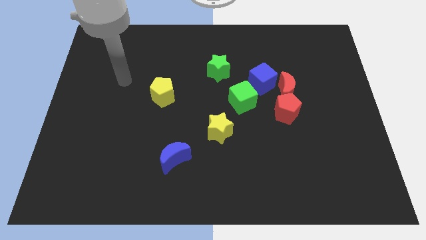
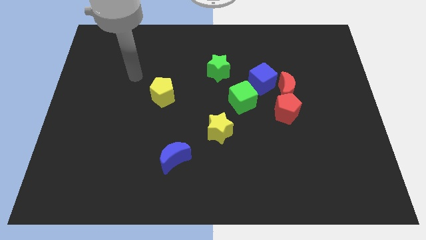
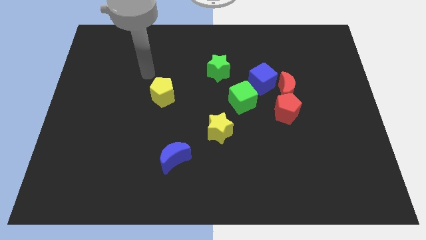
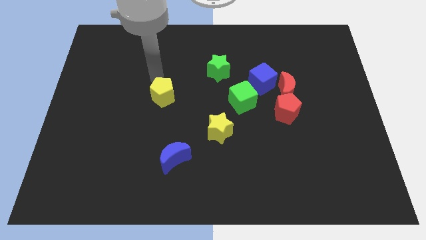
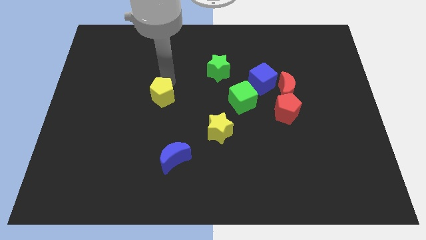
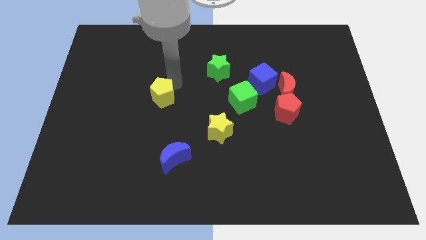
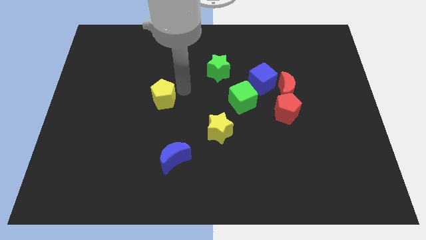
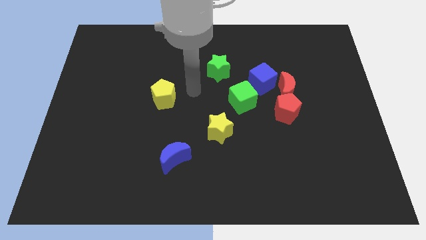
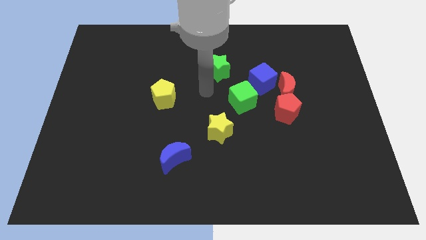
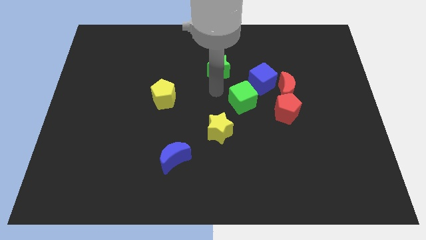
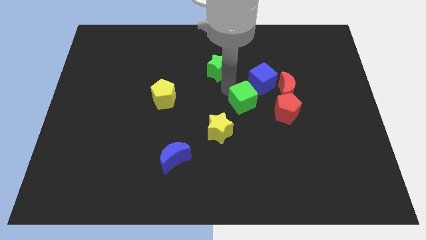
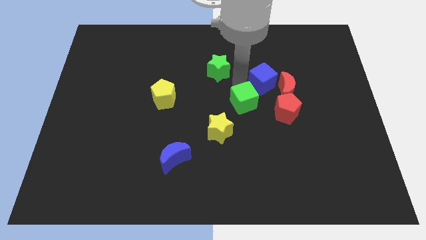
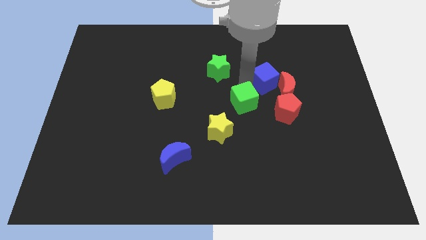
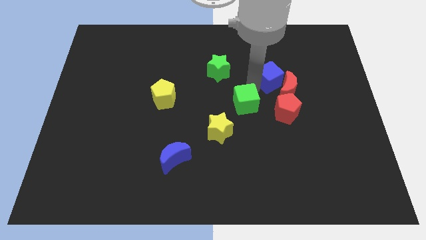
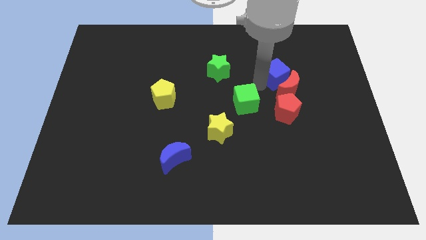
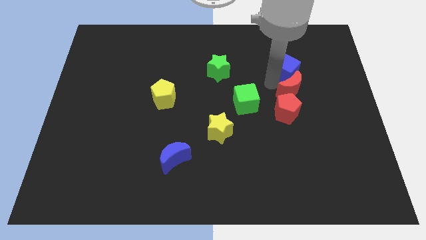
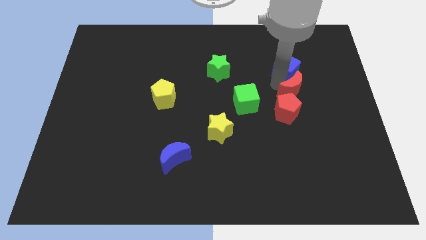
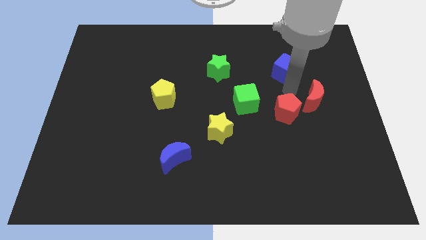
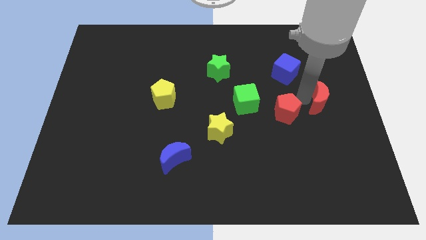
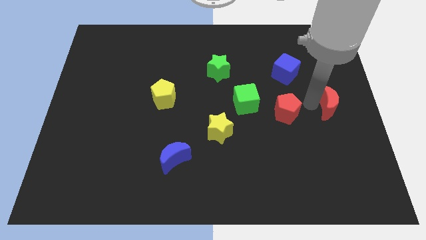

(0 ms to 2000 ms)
move the red pentagon away from the red moon

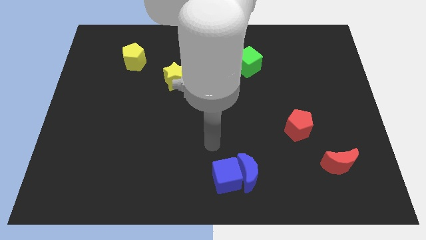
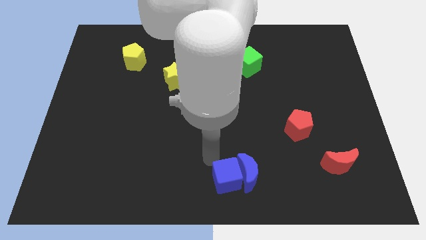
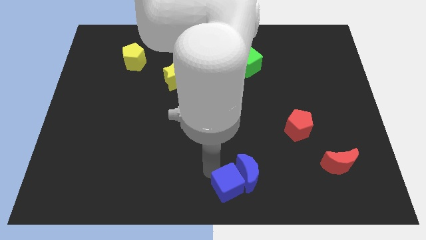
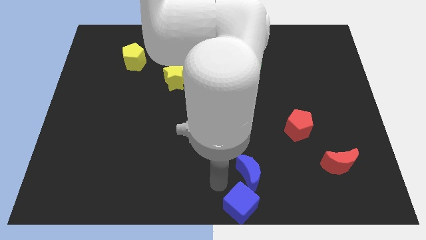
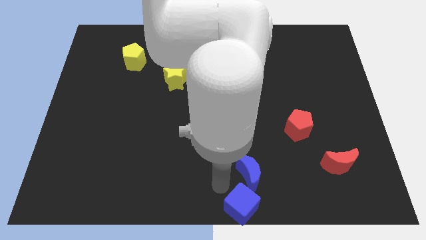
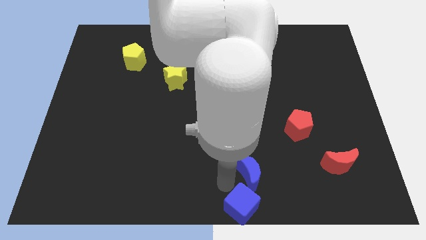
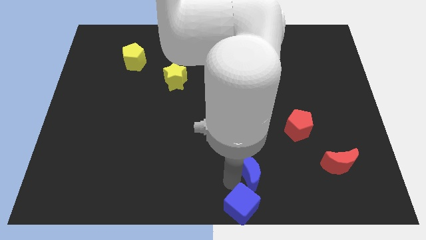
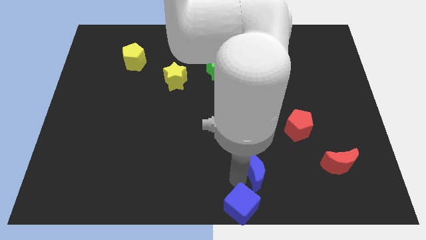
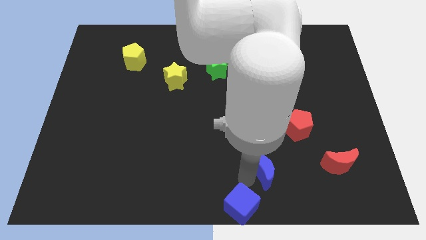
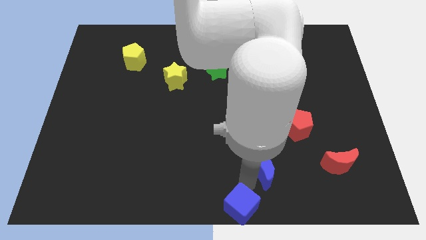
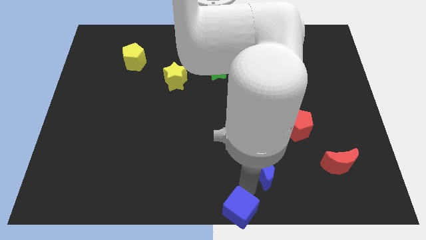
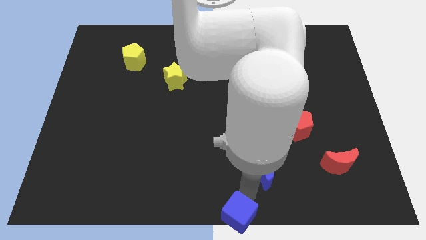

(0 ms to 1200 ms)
separate the blue moon from the blue cube

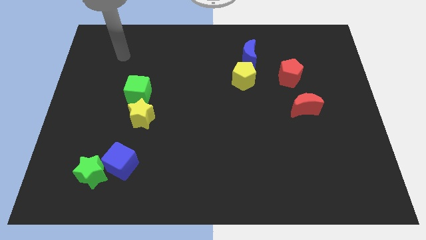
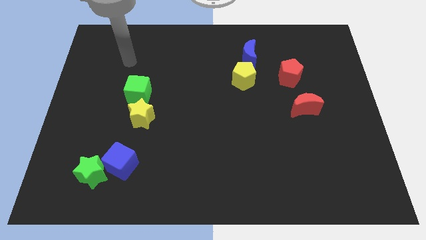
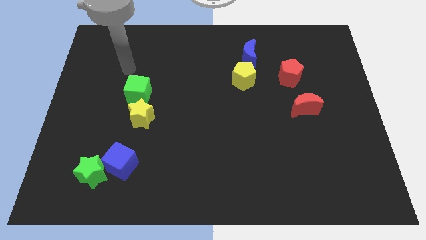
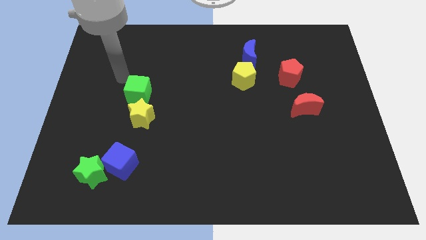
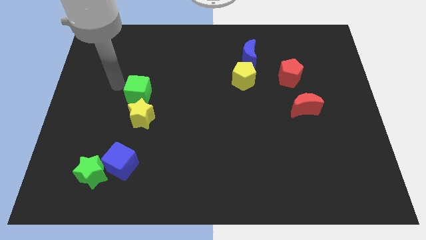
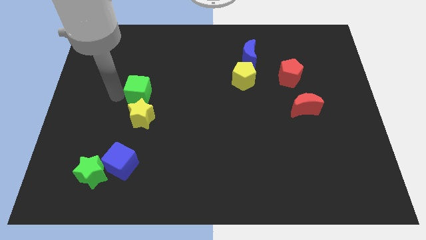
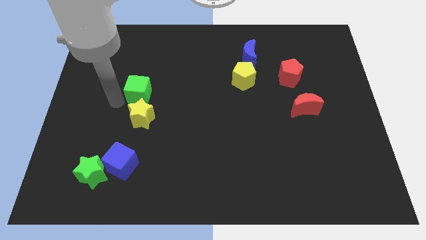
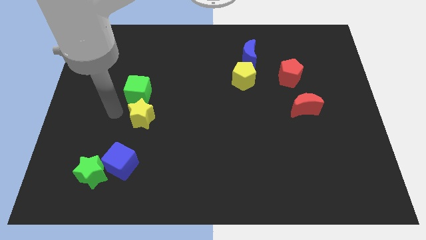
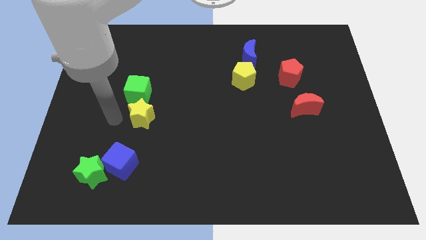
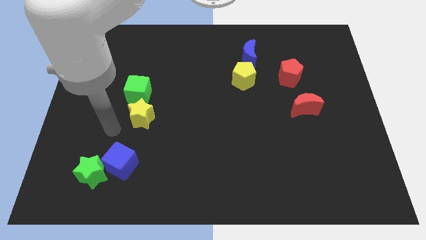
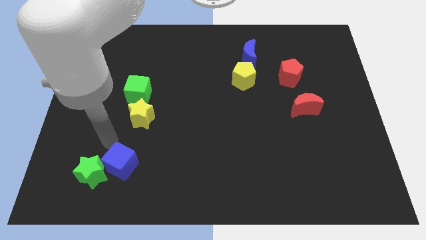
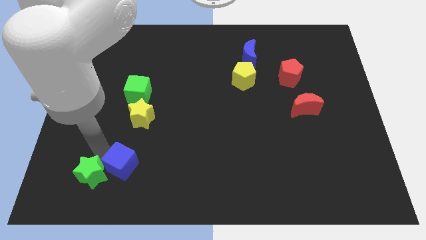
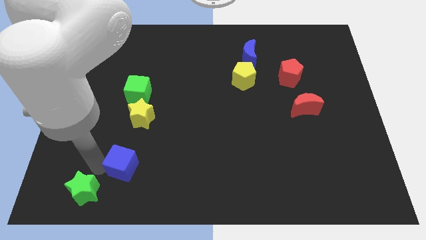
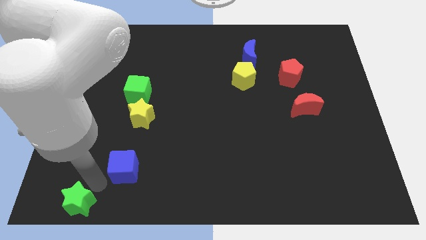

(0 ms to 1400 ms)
pull the blue cube apart from the green star

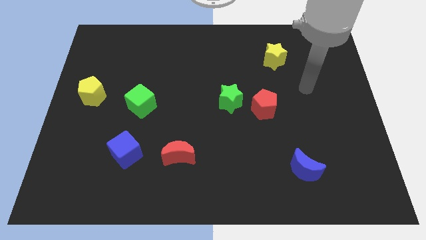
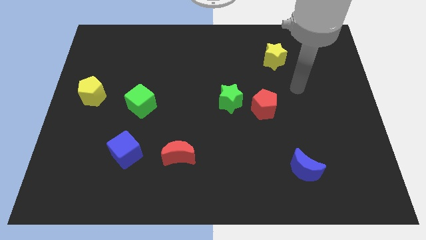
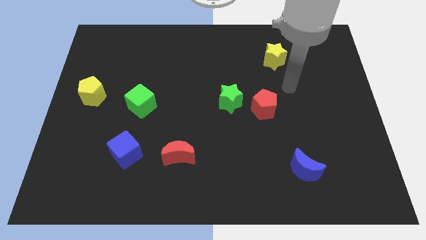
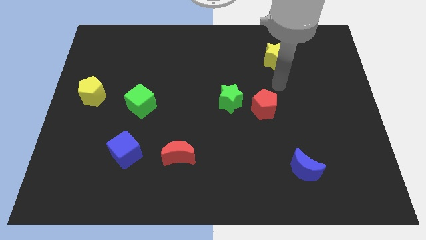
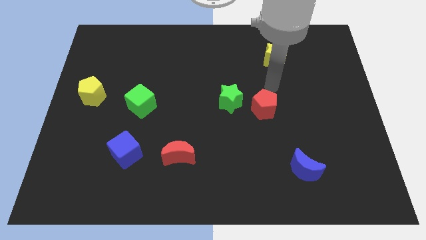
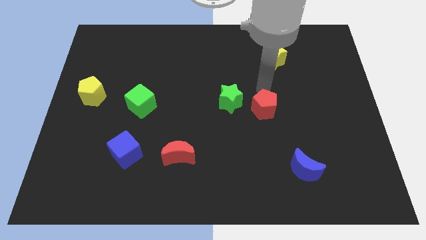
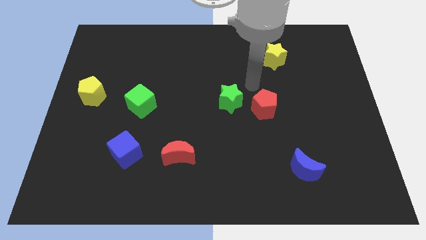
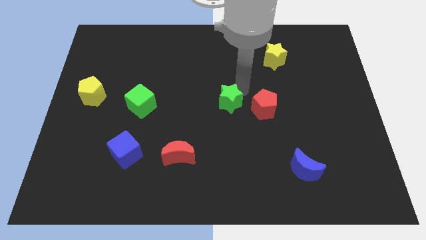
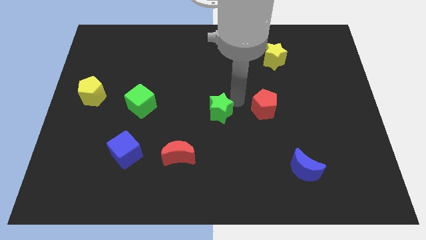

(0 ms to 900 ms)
pull the red pentagon apart from the green star

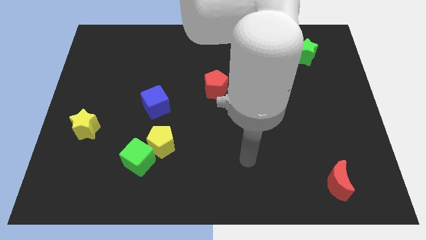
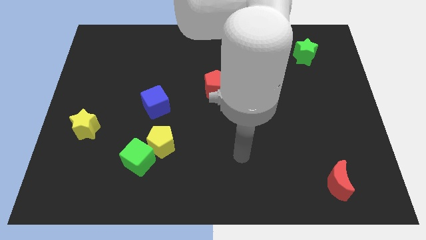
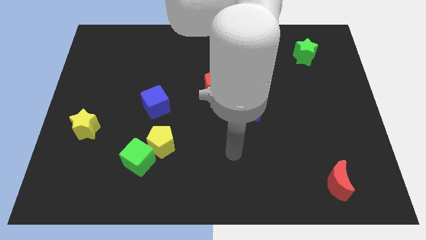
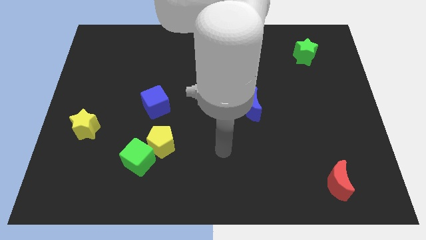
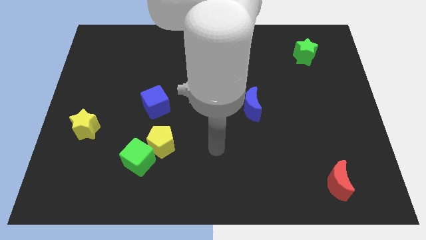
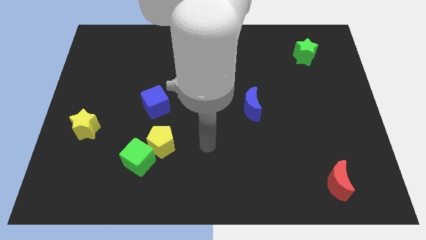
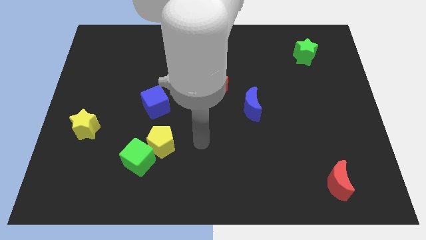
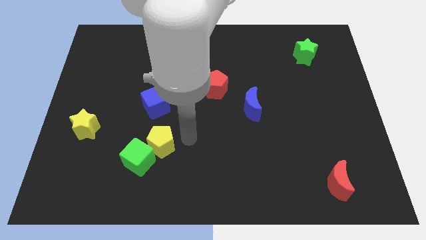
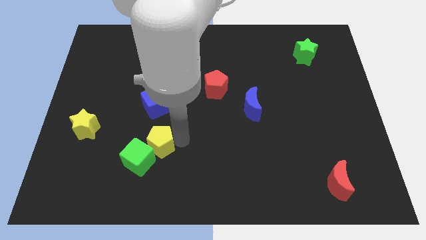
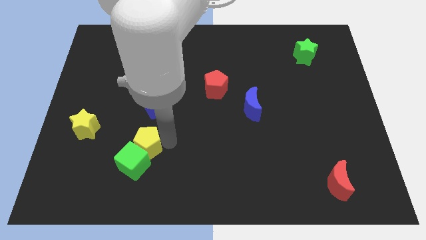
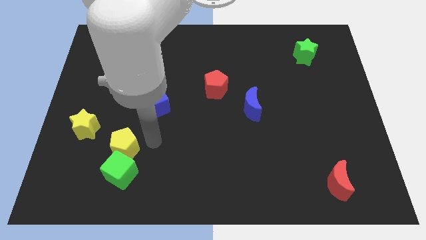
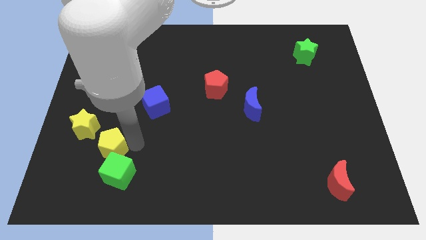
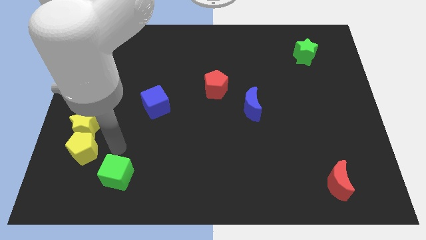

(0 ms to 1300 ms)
pull the green cube apart from the yellow pentagon

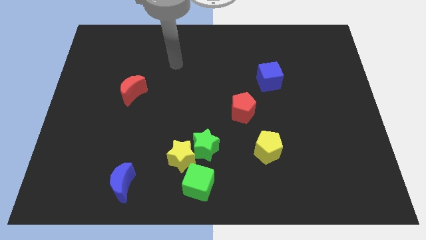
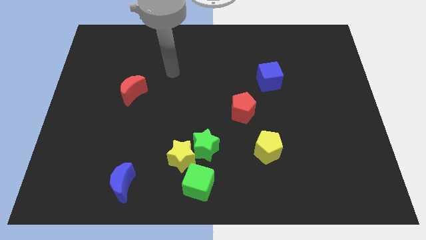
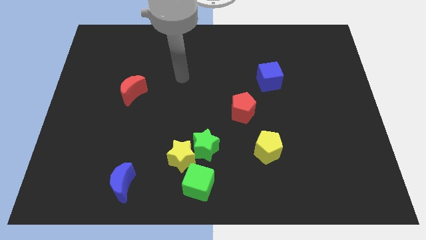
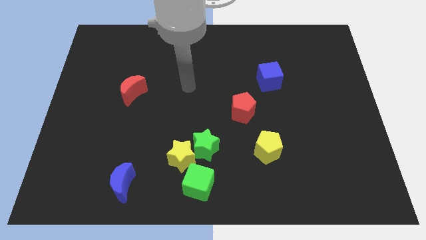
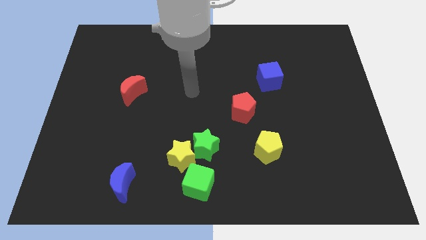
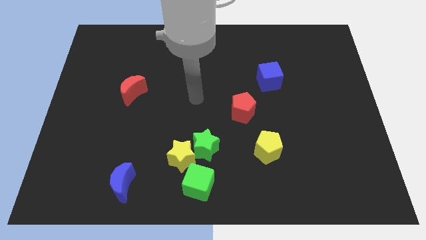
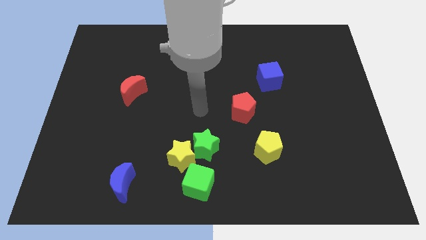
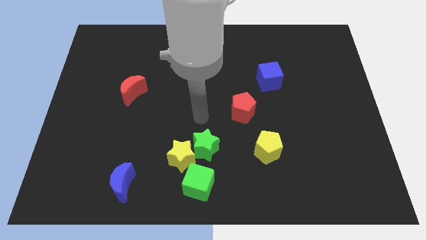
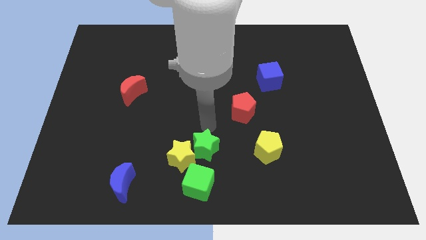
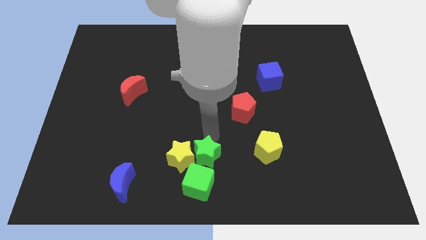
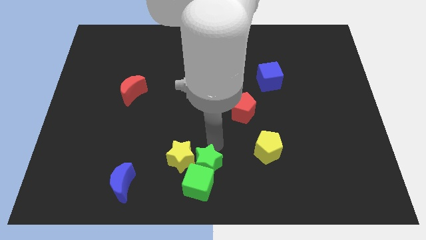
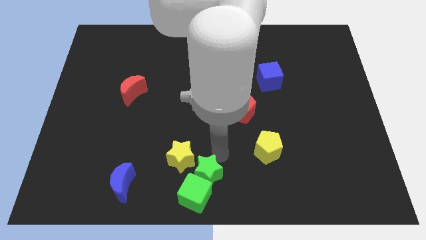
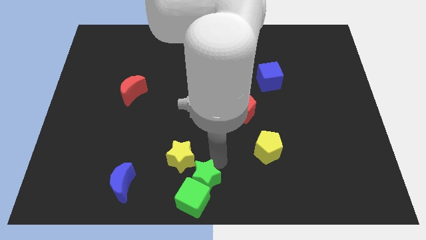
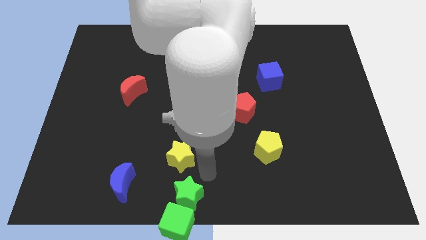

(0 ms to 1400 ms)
pull the yellow star apart from the green star and green cube

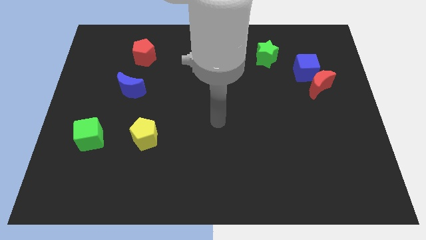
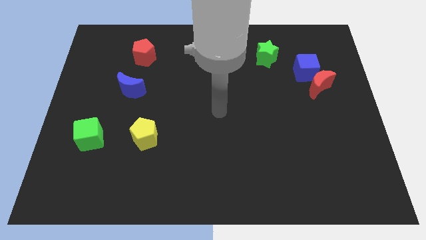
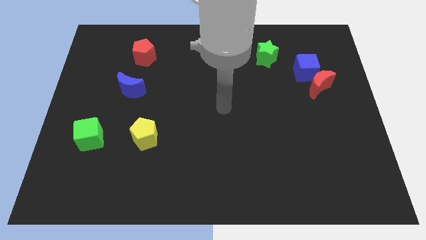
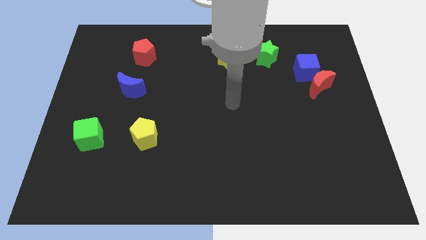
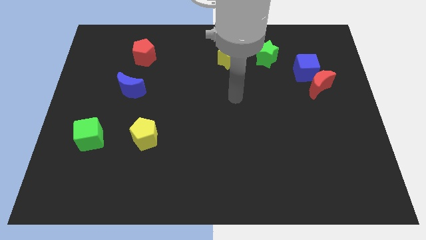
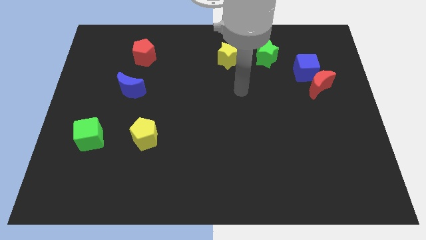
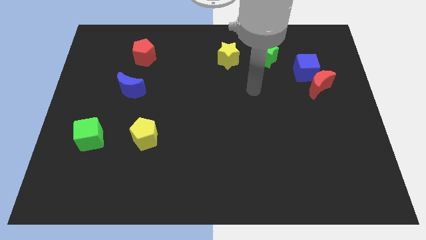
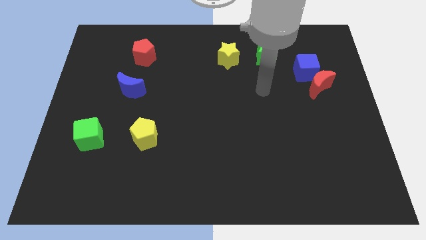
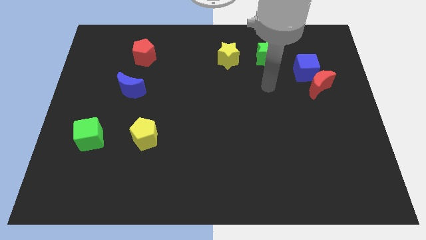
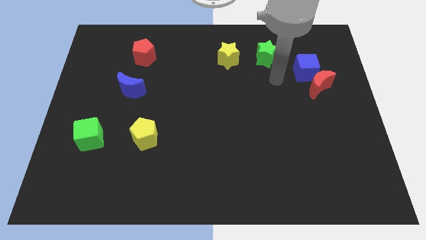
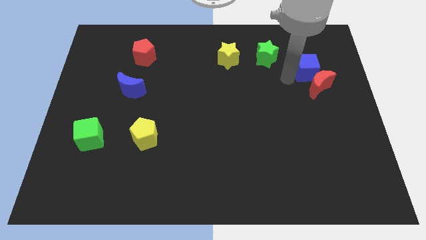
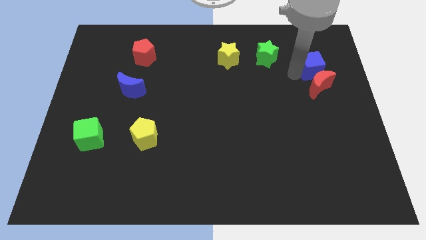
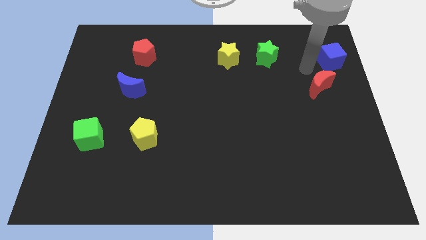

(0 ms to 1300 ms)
separate the red moon from the blue cube
